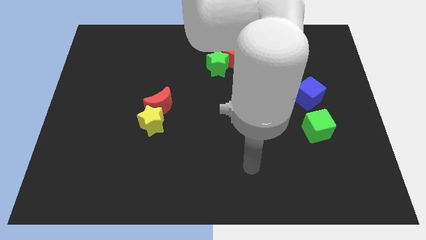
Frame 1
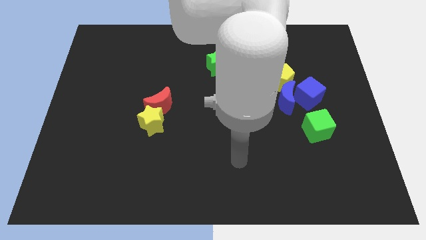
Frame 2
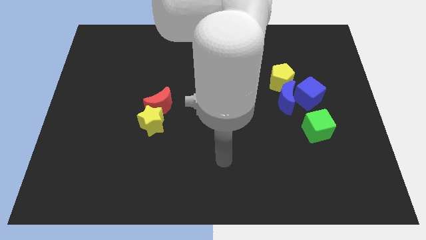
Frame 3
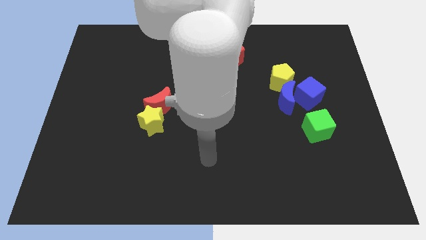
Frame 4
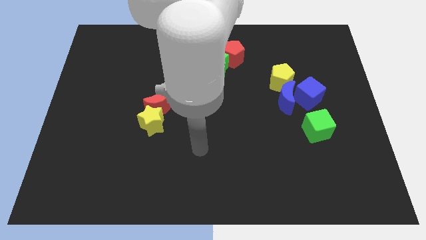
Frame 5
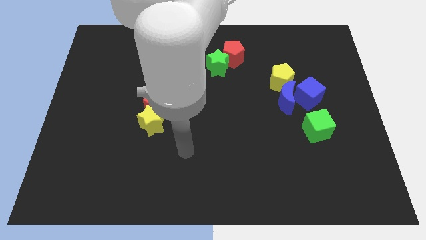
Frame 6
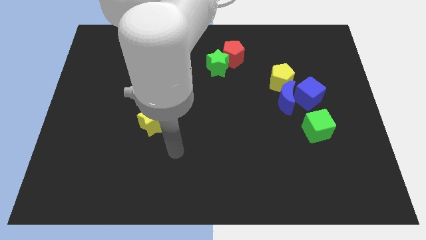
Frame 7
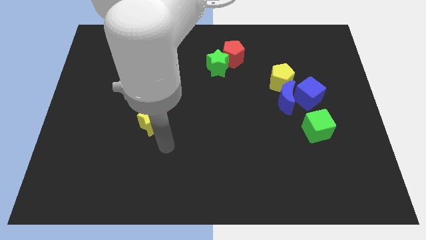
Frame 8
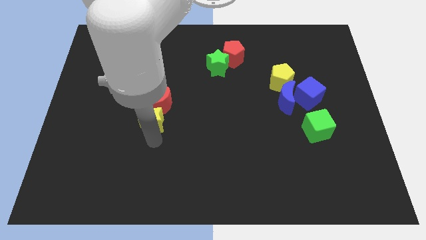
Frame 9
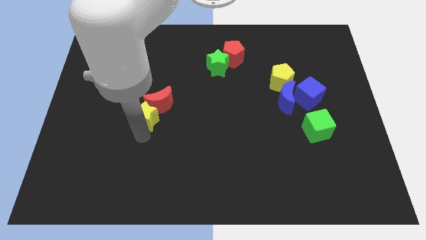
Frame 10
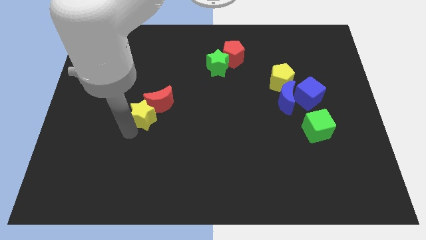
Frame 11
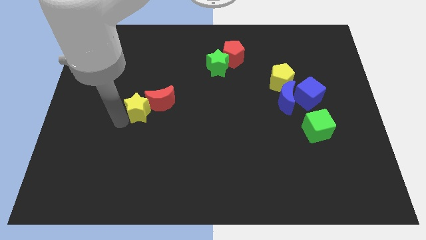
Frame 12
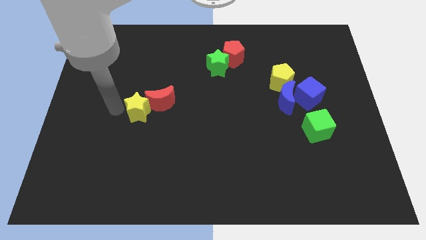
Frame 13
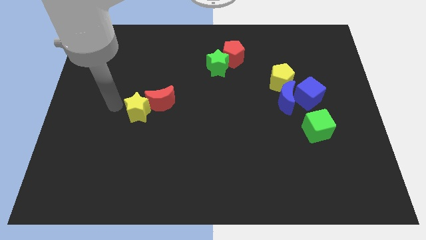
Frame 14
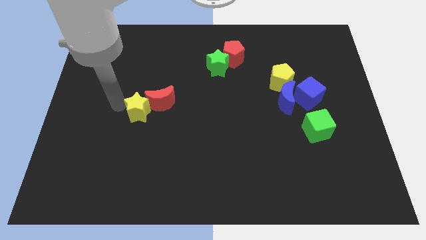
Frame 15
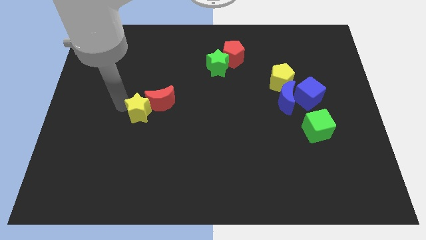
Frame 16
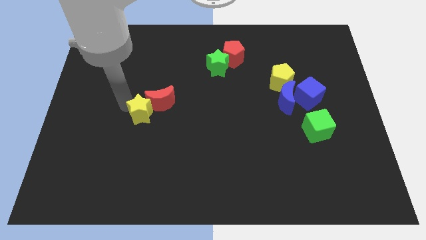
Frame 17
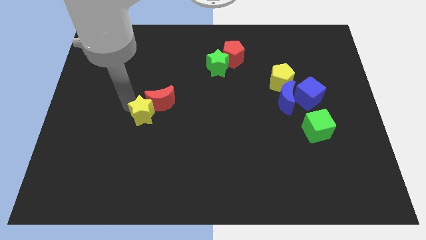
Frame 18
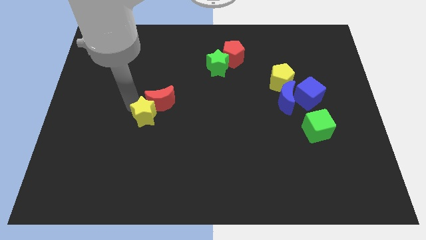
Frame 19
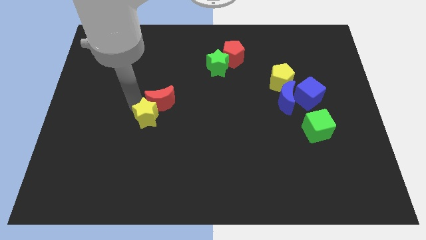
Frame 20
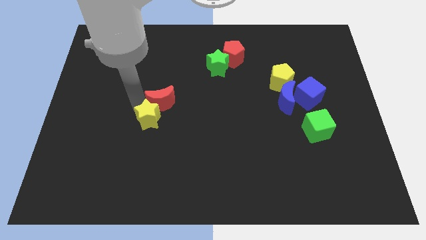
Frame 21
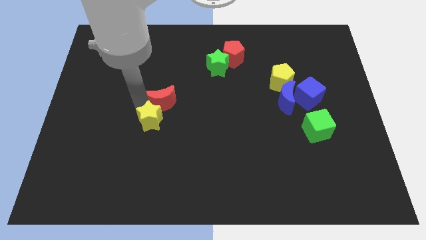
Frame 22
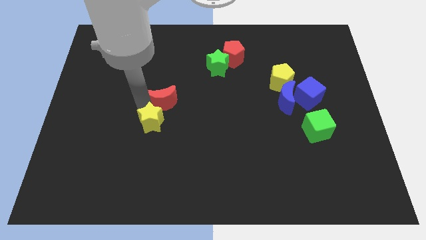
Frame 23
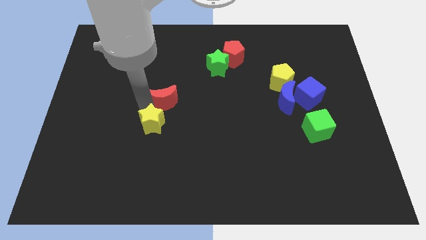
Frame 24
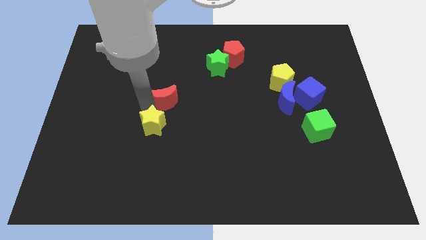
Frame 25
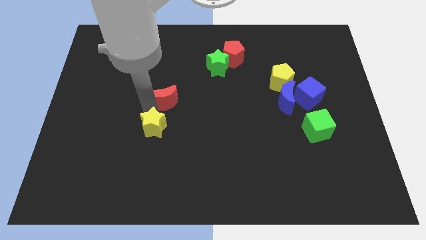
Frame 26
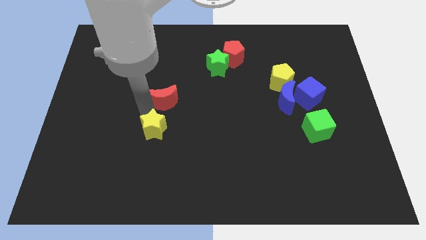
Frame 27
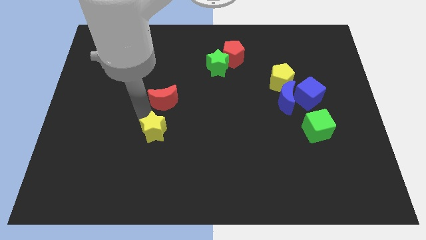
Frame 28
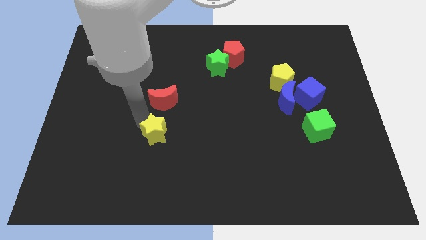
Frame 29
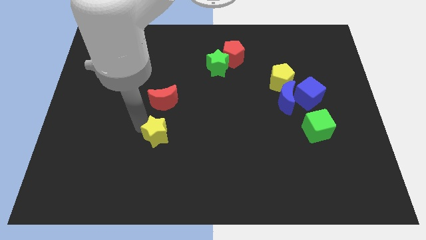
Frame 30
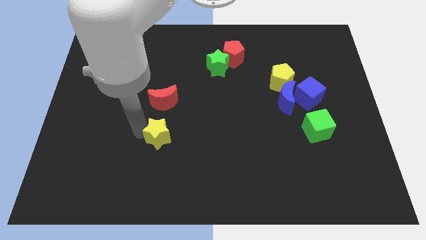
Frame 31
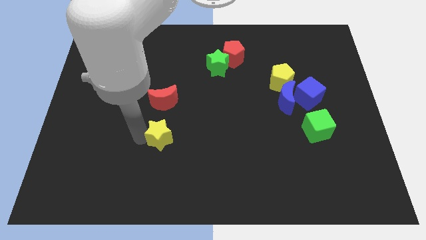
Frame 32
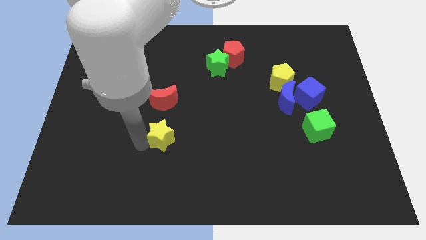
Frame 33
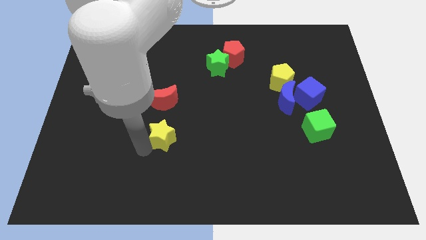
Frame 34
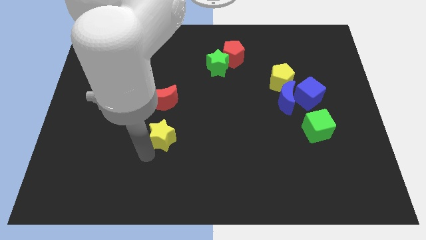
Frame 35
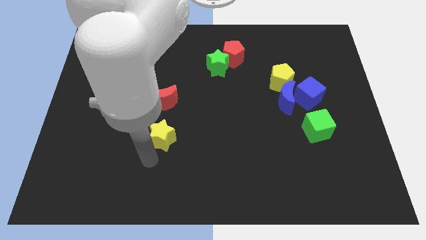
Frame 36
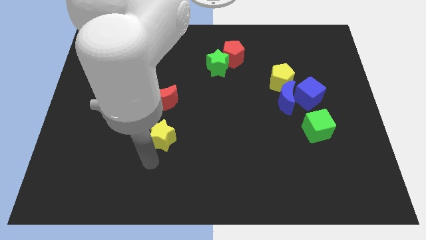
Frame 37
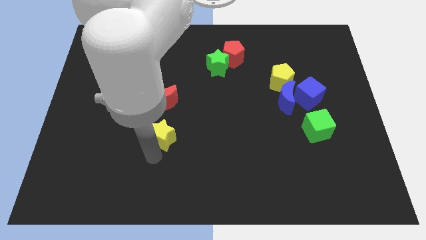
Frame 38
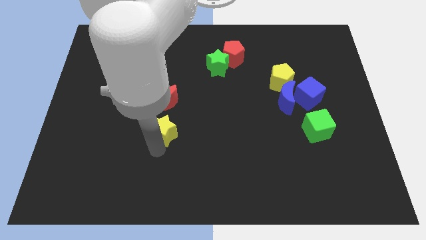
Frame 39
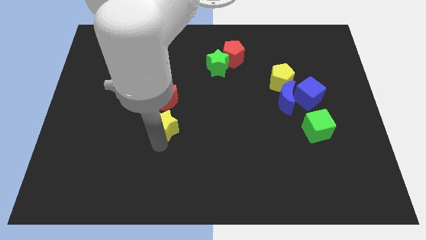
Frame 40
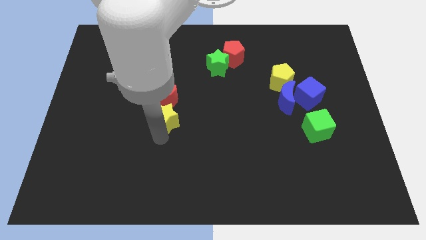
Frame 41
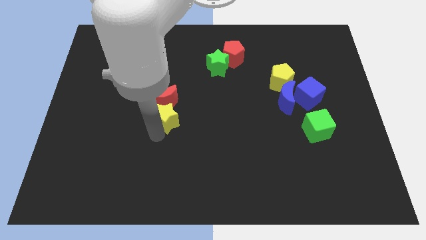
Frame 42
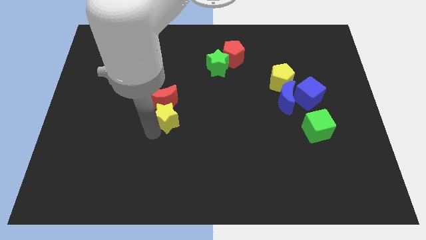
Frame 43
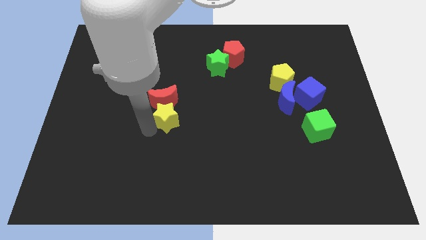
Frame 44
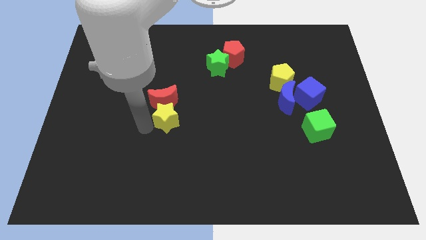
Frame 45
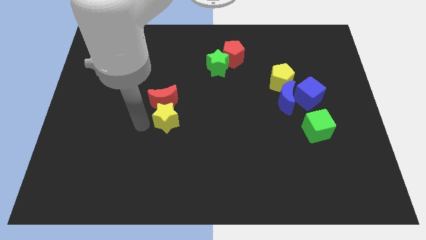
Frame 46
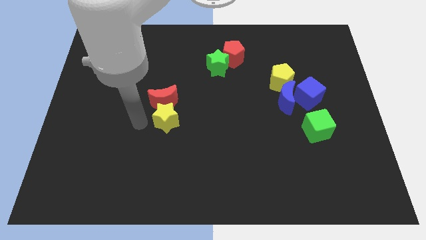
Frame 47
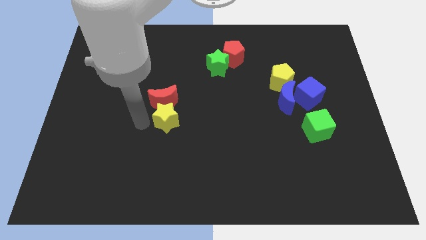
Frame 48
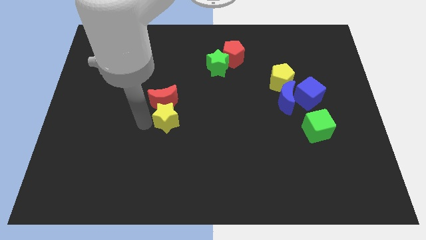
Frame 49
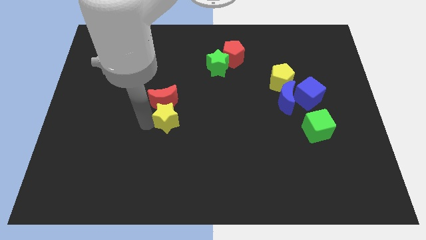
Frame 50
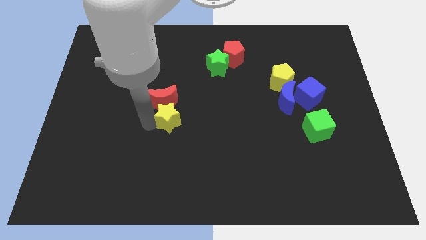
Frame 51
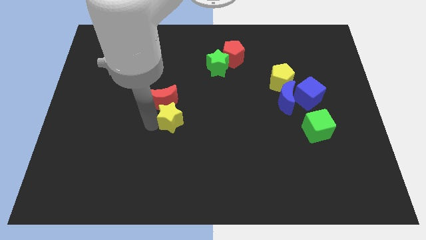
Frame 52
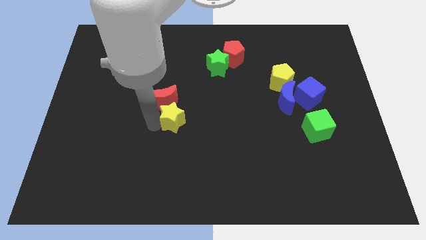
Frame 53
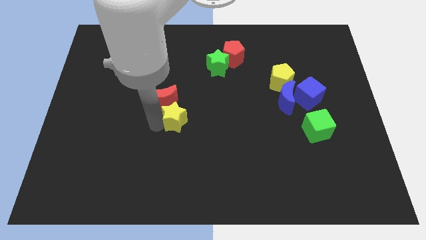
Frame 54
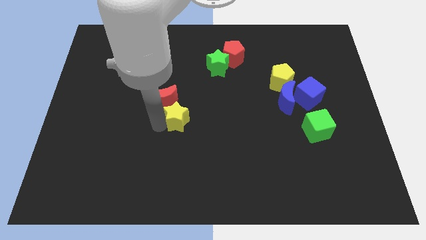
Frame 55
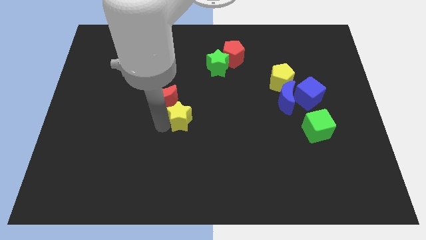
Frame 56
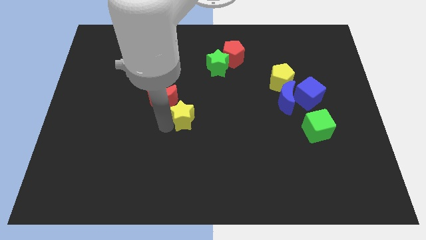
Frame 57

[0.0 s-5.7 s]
slightly move the yellow star right

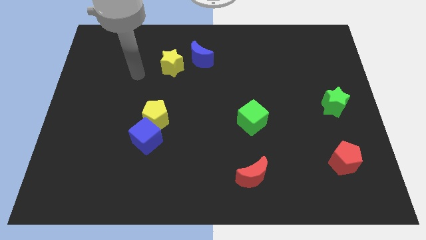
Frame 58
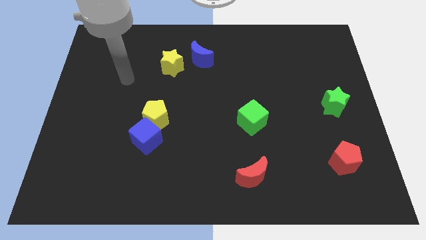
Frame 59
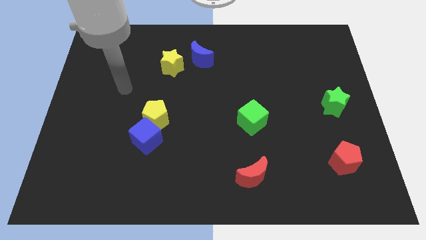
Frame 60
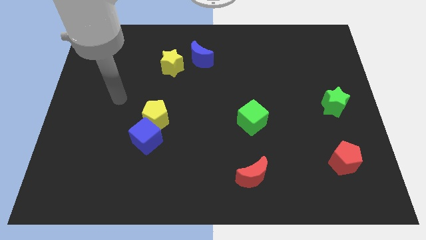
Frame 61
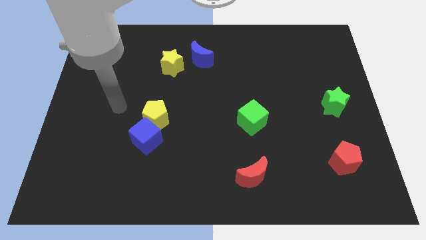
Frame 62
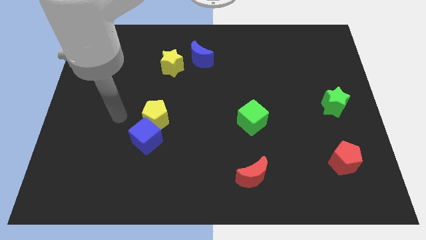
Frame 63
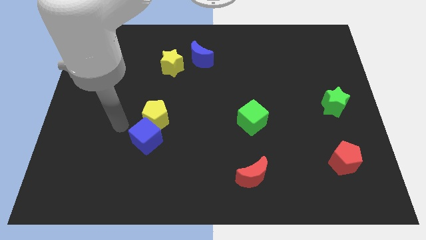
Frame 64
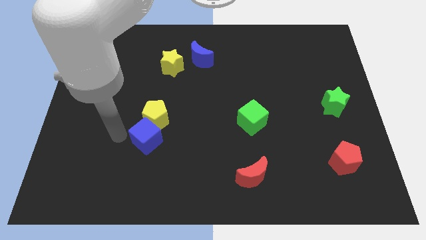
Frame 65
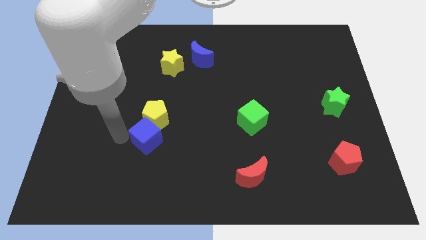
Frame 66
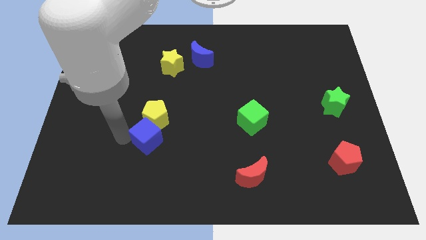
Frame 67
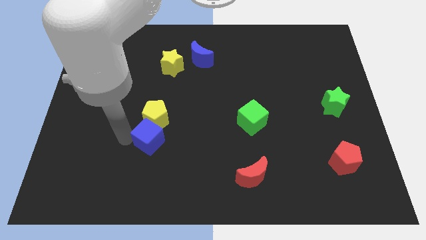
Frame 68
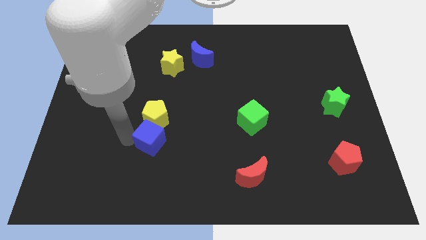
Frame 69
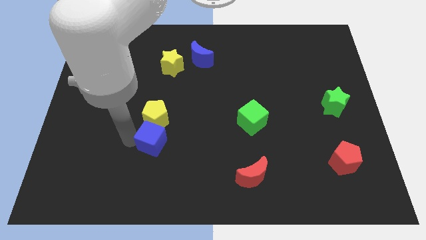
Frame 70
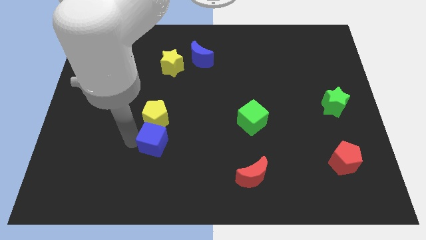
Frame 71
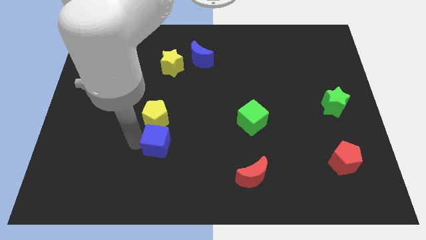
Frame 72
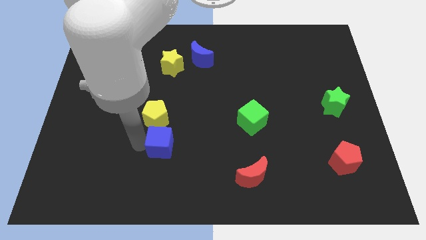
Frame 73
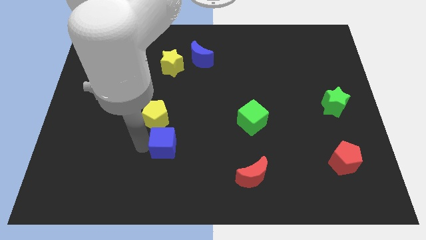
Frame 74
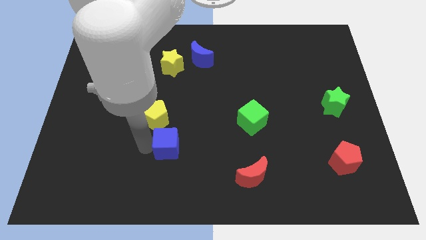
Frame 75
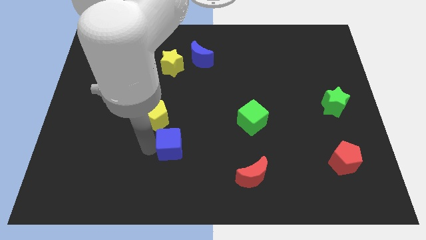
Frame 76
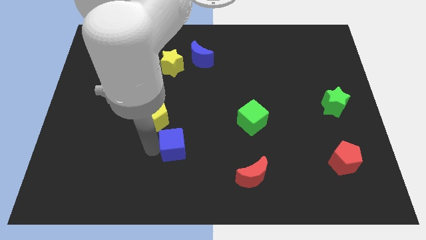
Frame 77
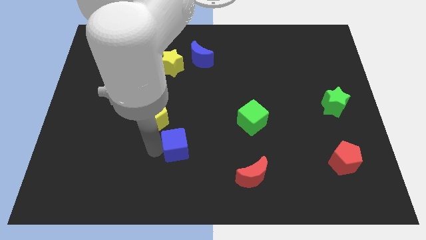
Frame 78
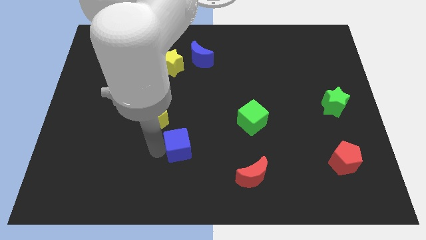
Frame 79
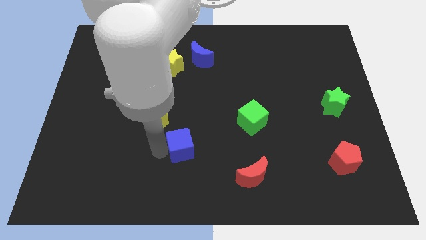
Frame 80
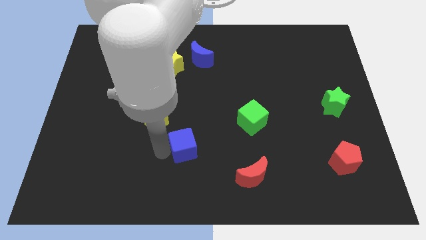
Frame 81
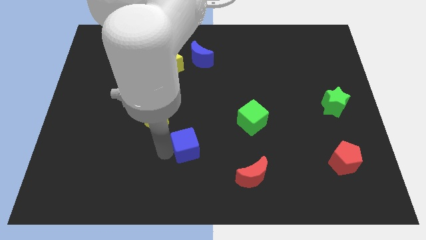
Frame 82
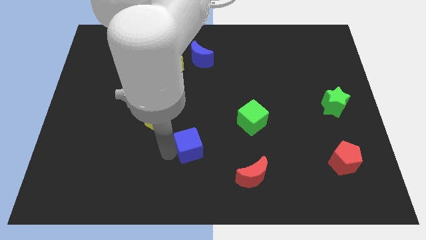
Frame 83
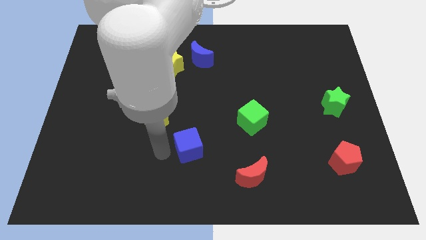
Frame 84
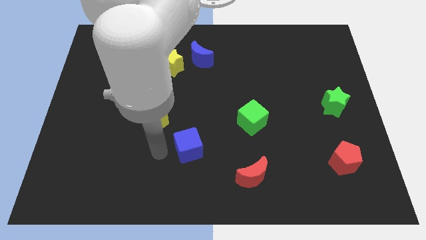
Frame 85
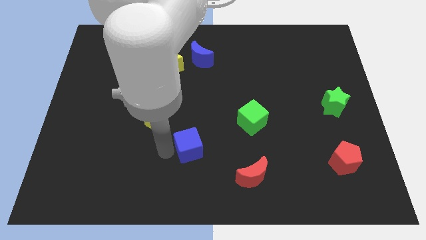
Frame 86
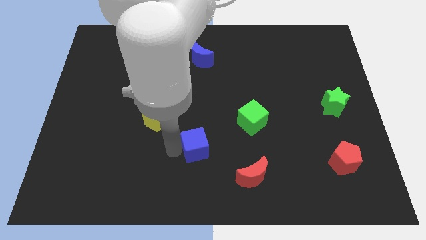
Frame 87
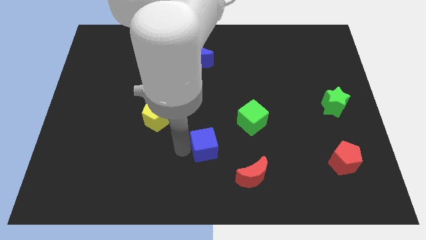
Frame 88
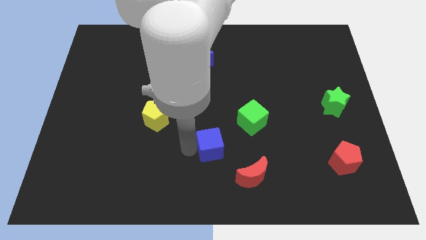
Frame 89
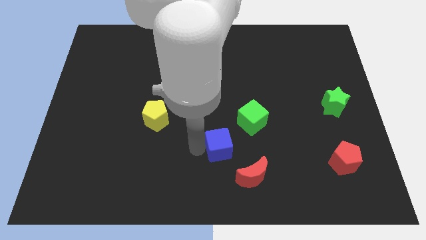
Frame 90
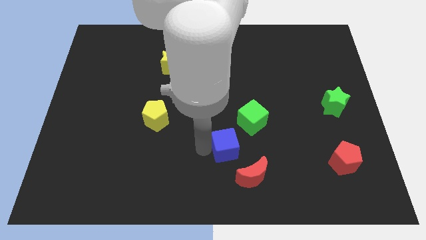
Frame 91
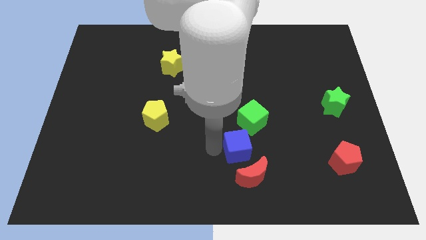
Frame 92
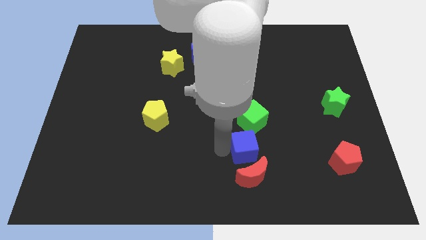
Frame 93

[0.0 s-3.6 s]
move the blue cube right
